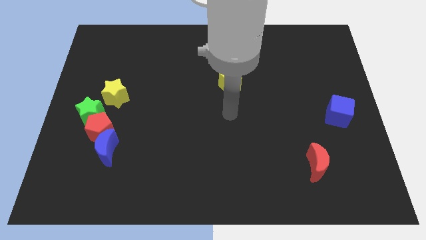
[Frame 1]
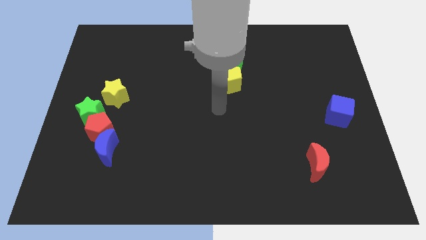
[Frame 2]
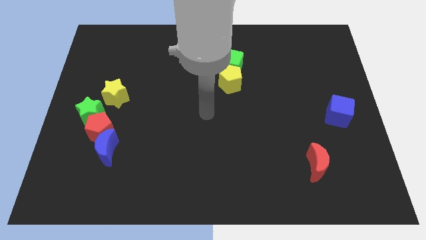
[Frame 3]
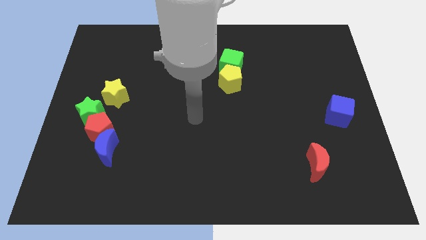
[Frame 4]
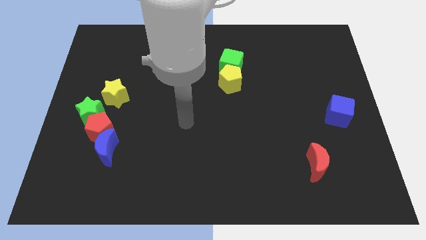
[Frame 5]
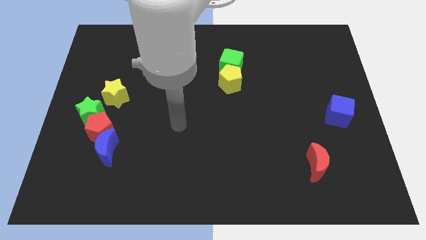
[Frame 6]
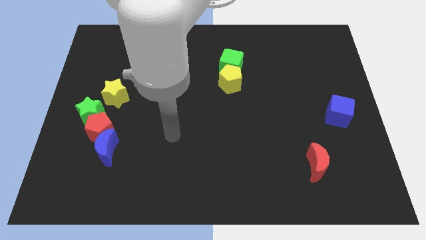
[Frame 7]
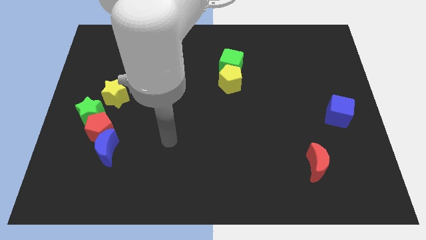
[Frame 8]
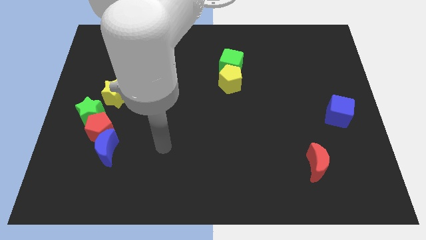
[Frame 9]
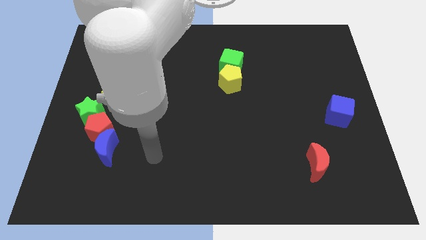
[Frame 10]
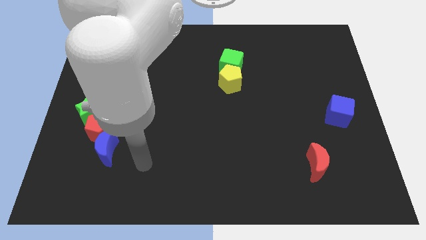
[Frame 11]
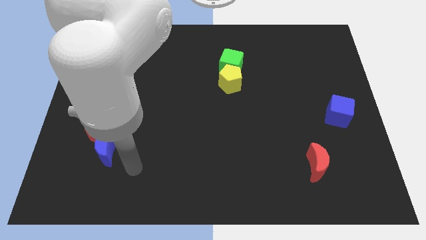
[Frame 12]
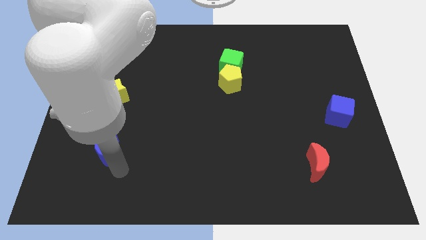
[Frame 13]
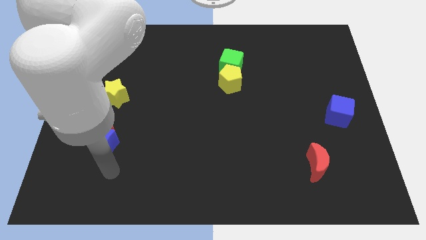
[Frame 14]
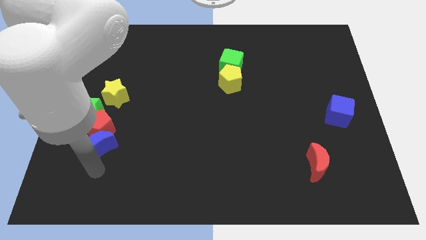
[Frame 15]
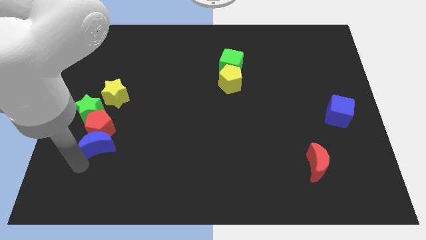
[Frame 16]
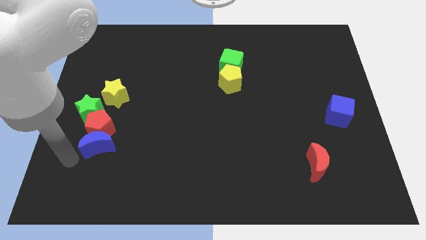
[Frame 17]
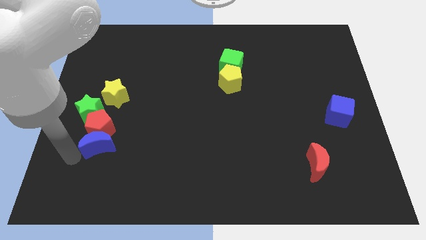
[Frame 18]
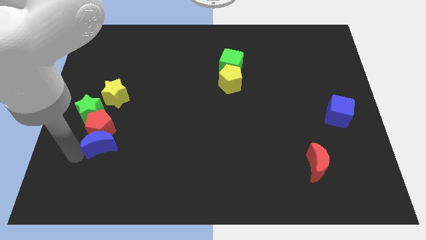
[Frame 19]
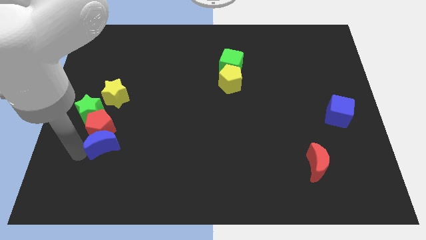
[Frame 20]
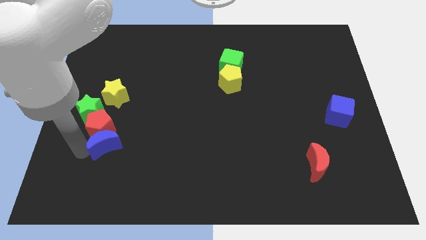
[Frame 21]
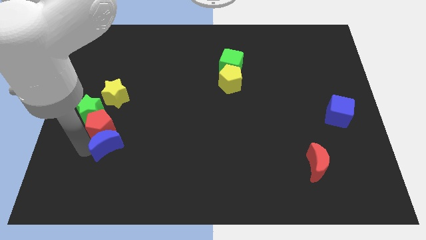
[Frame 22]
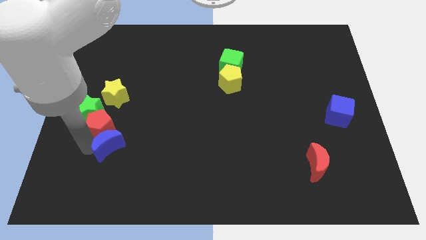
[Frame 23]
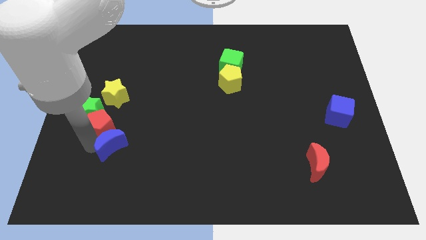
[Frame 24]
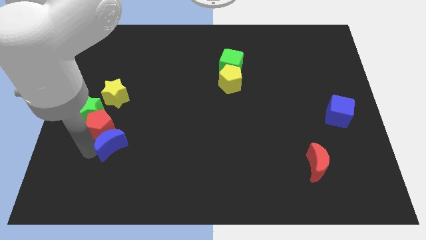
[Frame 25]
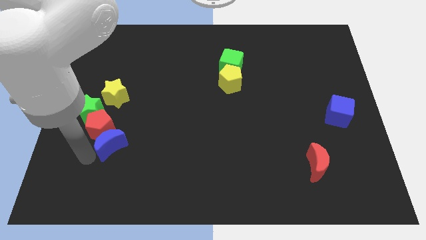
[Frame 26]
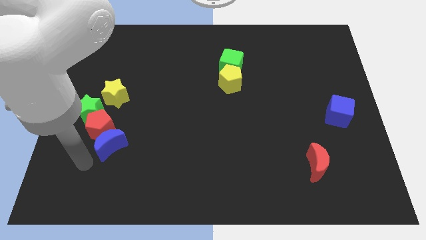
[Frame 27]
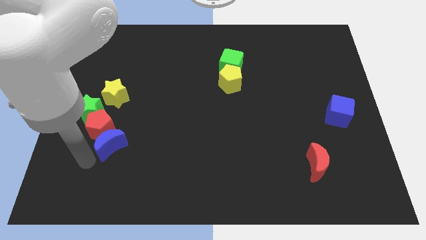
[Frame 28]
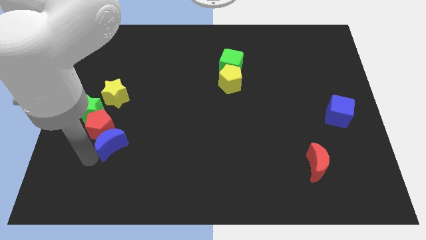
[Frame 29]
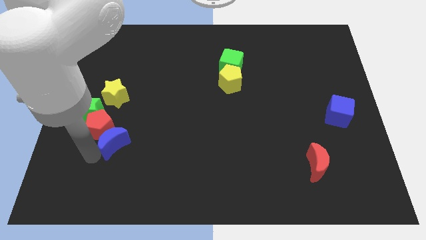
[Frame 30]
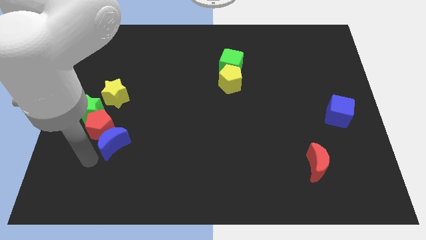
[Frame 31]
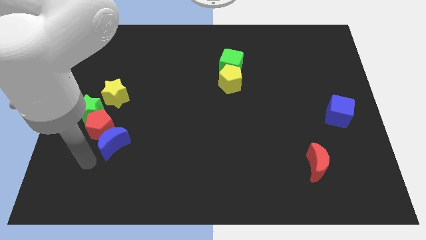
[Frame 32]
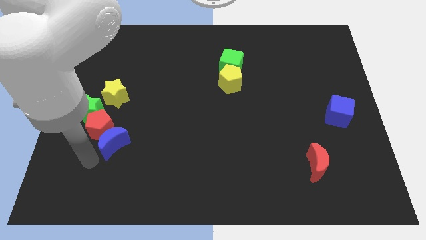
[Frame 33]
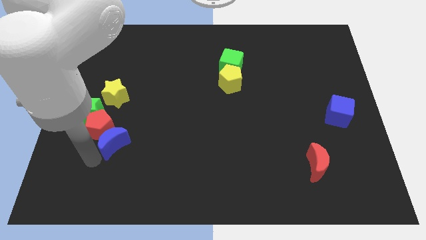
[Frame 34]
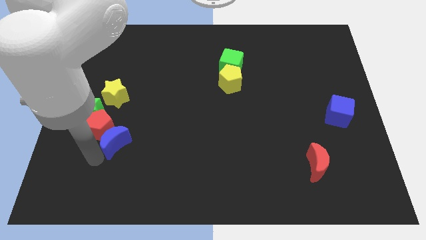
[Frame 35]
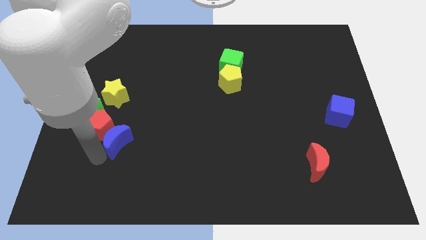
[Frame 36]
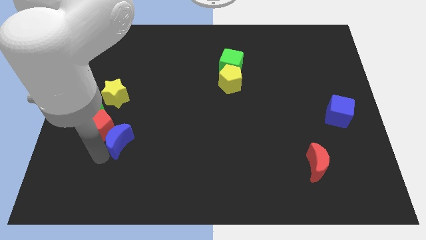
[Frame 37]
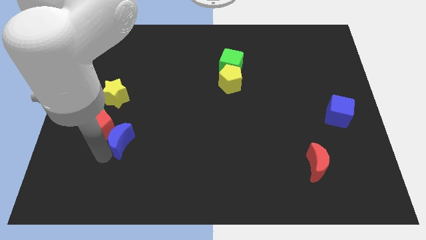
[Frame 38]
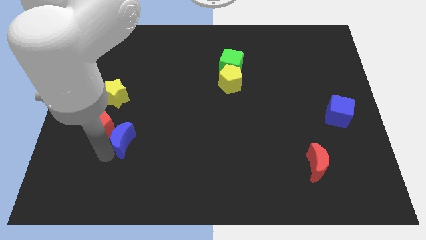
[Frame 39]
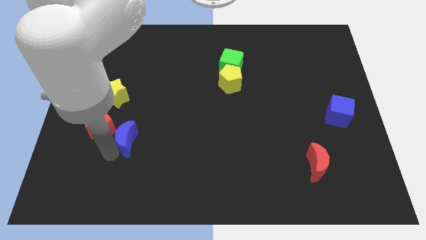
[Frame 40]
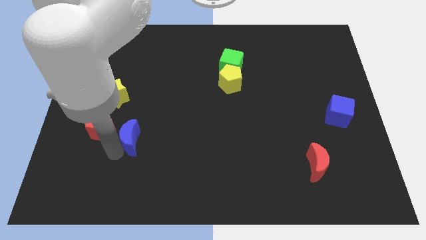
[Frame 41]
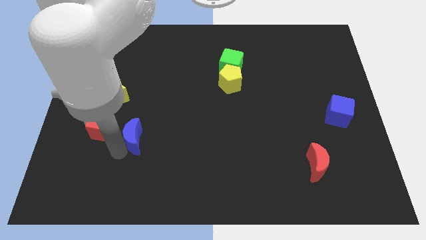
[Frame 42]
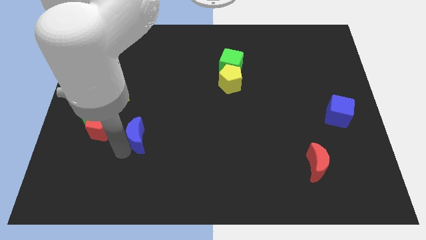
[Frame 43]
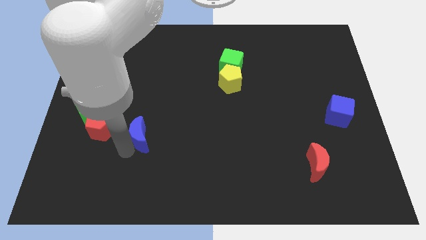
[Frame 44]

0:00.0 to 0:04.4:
push the blue moon up and right a little bit

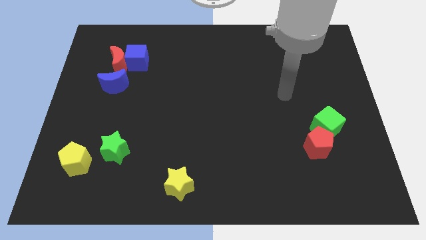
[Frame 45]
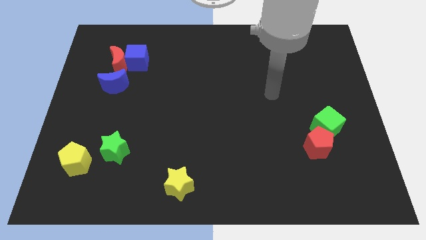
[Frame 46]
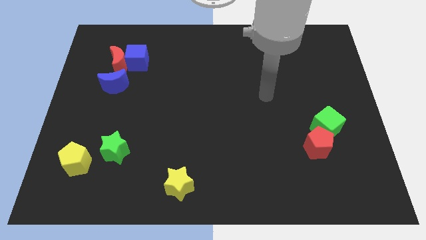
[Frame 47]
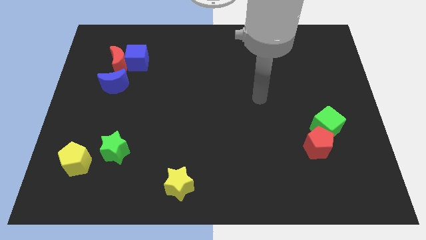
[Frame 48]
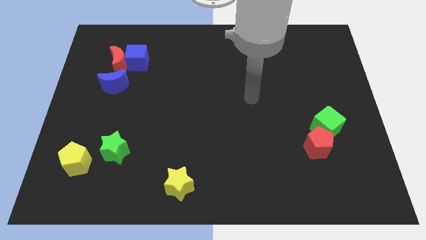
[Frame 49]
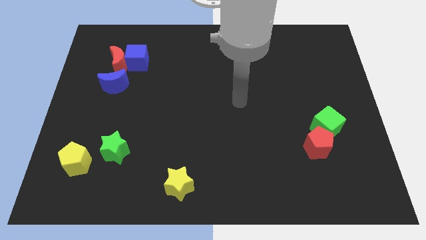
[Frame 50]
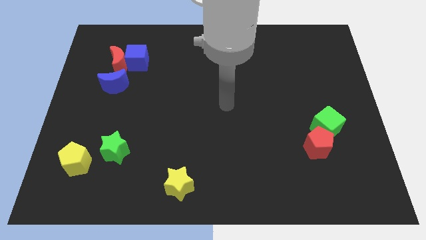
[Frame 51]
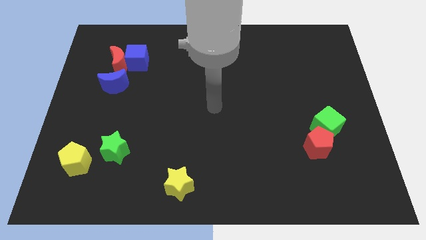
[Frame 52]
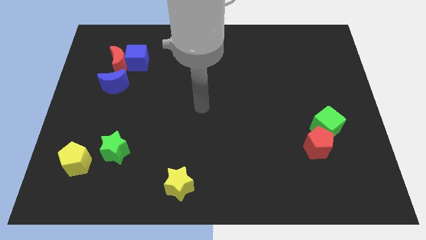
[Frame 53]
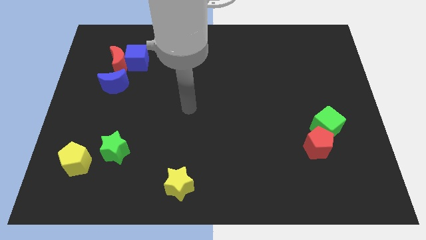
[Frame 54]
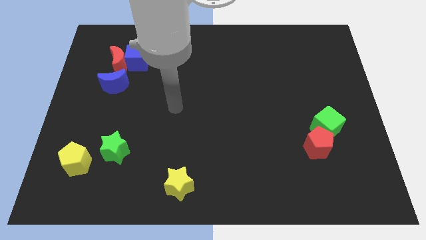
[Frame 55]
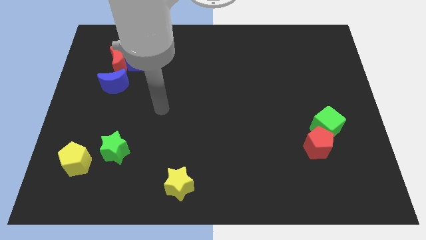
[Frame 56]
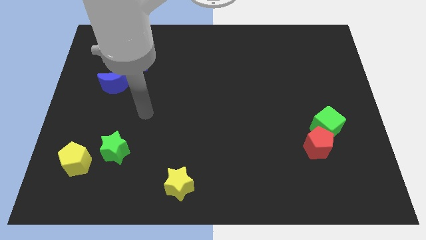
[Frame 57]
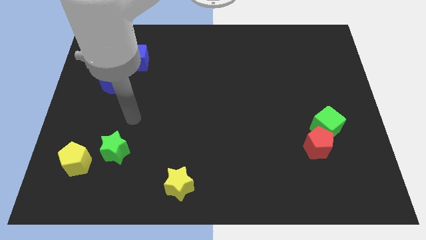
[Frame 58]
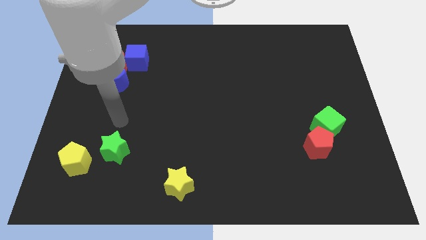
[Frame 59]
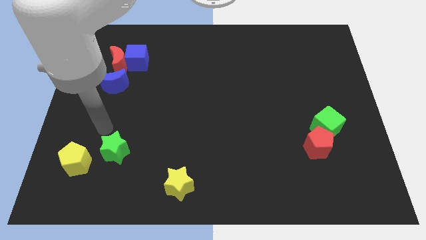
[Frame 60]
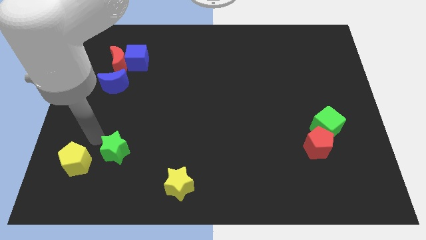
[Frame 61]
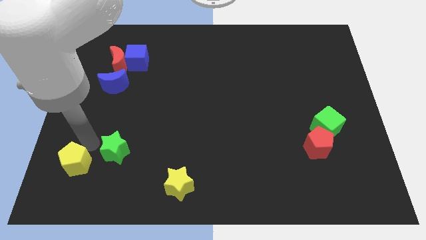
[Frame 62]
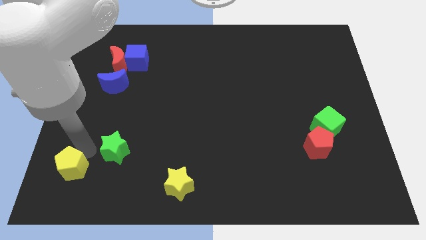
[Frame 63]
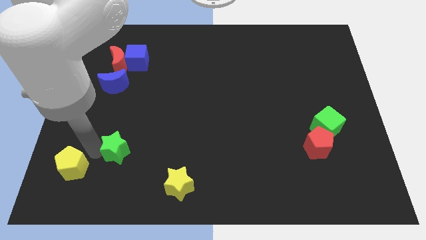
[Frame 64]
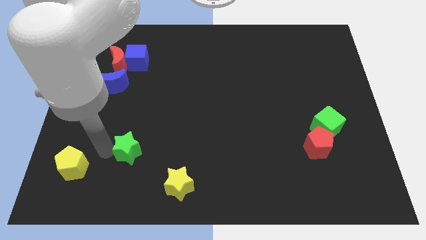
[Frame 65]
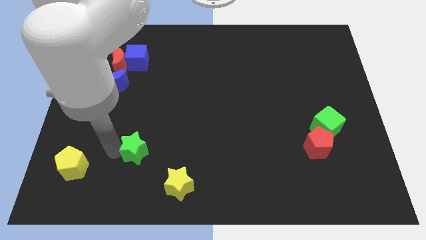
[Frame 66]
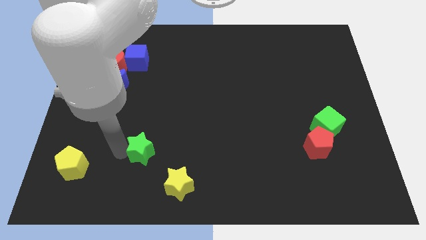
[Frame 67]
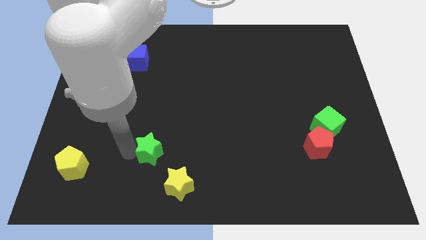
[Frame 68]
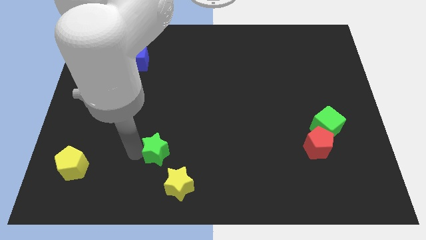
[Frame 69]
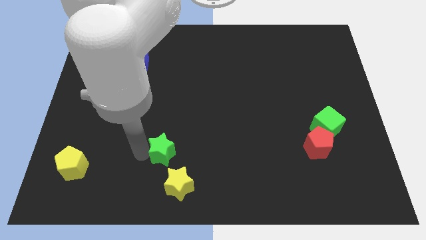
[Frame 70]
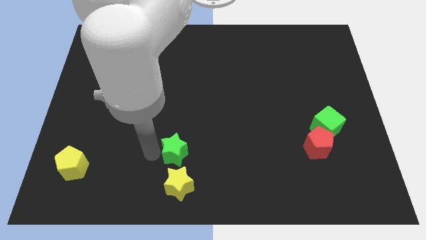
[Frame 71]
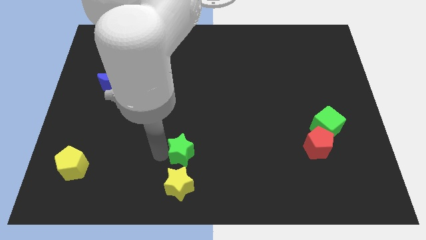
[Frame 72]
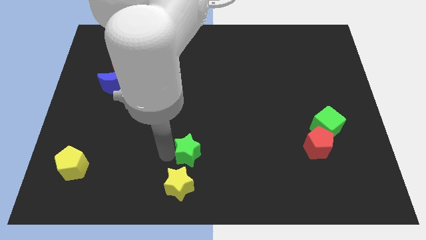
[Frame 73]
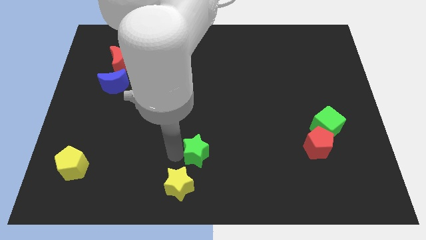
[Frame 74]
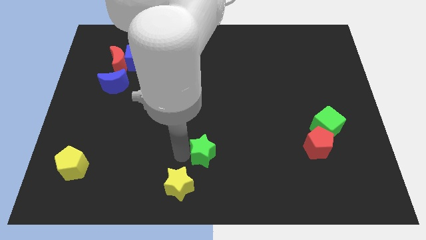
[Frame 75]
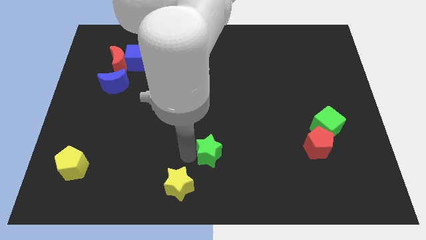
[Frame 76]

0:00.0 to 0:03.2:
move the green star right

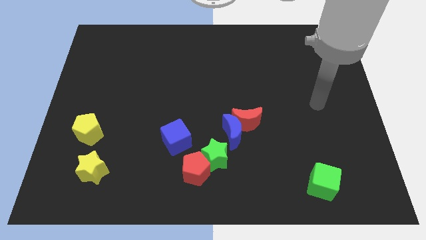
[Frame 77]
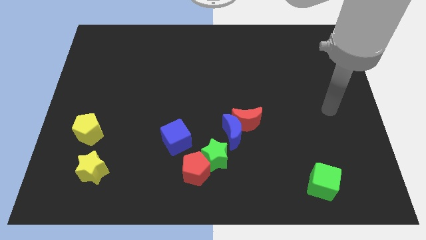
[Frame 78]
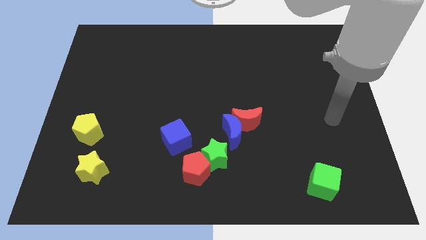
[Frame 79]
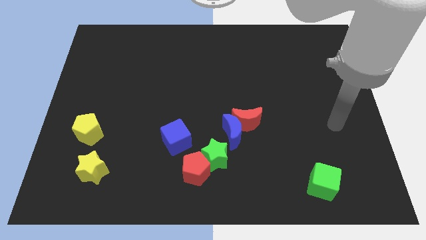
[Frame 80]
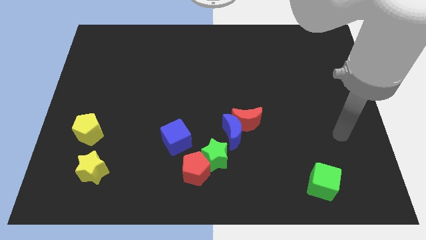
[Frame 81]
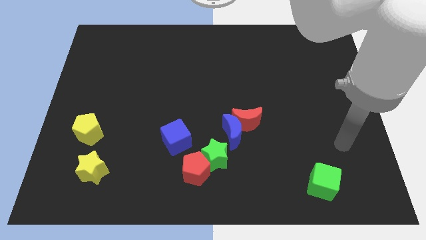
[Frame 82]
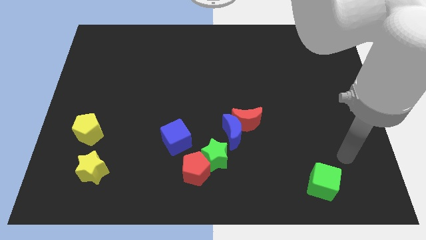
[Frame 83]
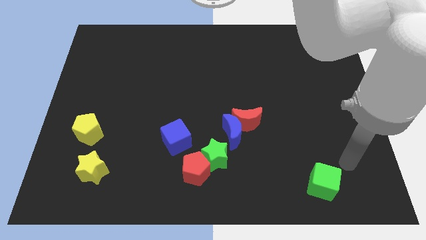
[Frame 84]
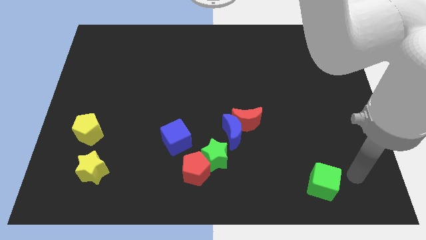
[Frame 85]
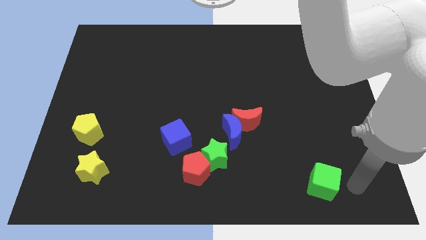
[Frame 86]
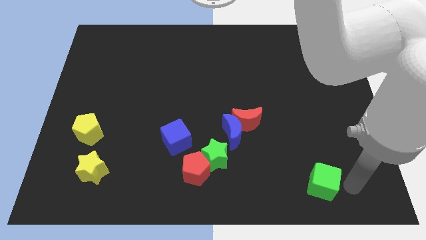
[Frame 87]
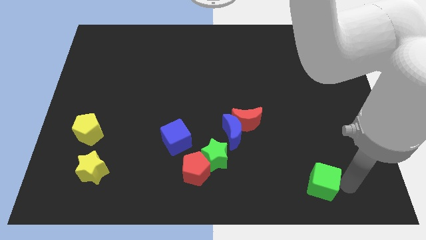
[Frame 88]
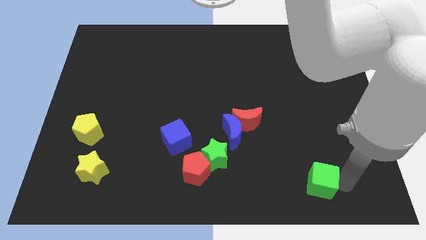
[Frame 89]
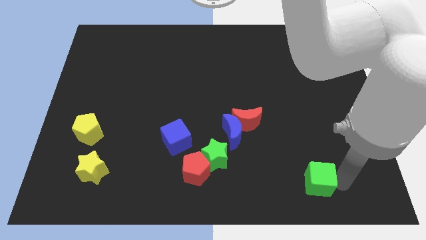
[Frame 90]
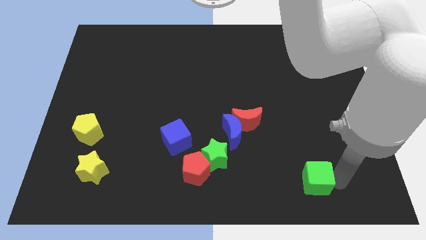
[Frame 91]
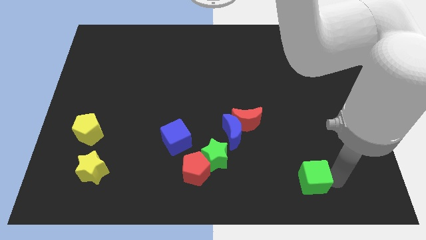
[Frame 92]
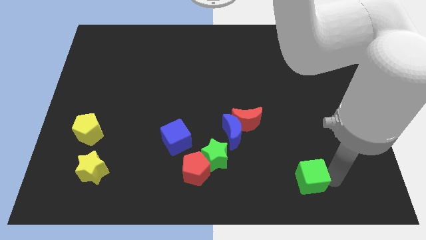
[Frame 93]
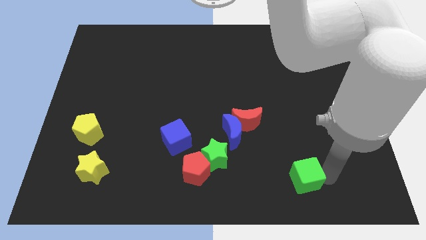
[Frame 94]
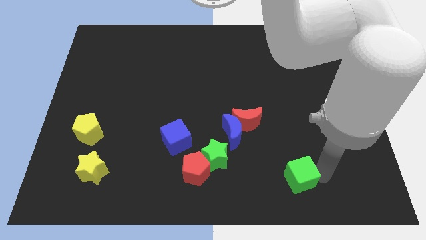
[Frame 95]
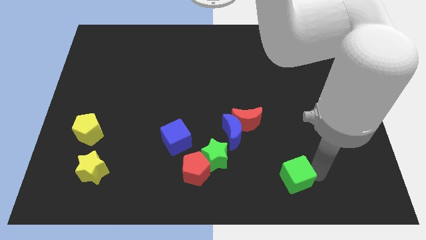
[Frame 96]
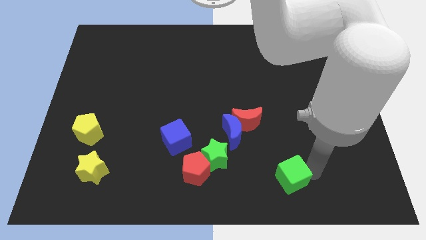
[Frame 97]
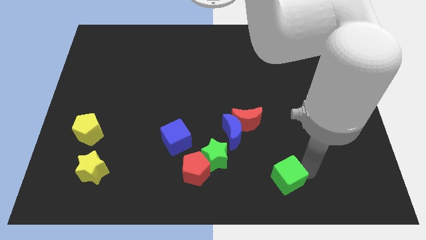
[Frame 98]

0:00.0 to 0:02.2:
slightly slide the green cube to the left
